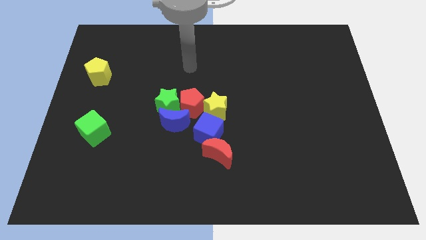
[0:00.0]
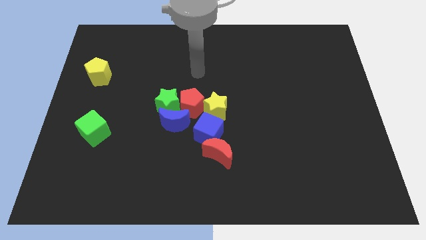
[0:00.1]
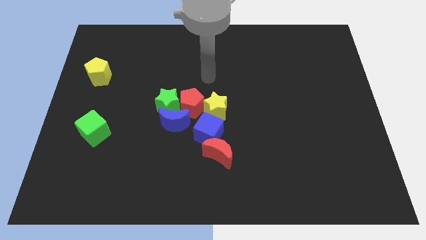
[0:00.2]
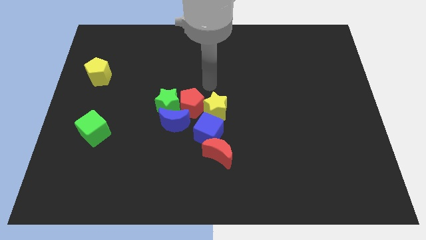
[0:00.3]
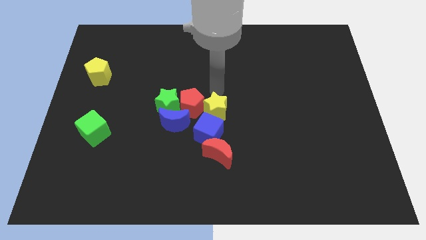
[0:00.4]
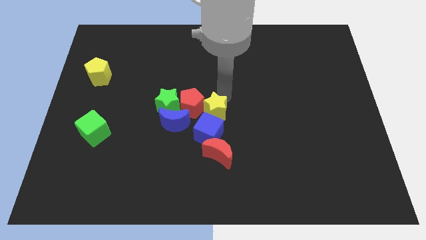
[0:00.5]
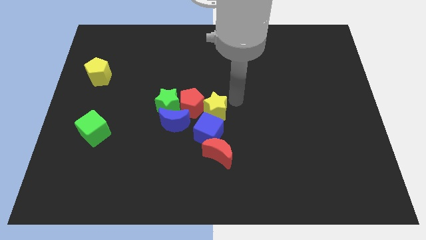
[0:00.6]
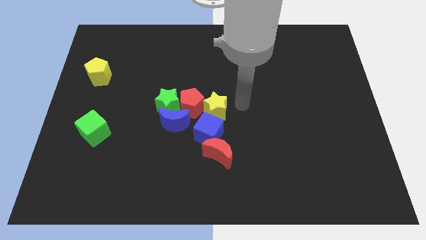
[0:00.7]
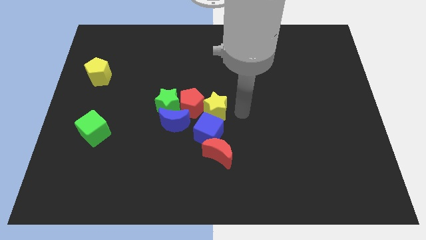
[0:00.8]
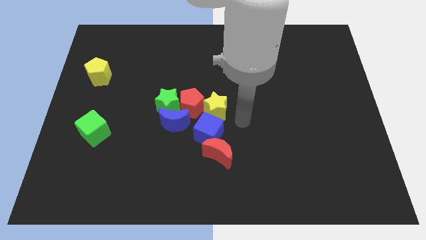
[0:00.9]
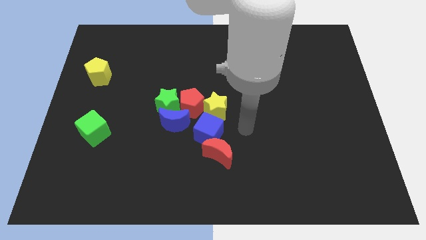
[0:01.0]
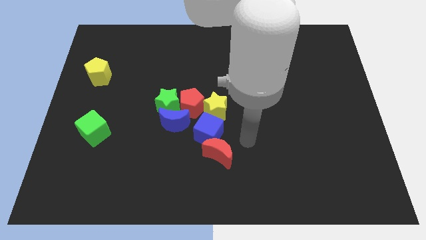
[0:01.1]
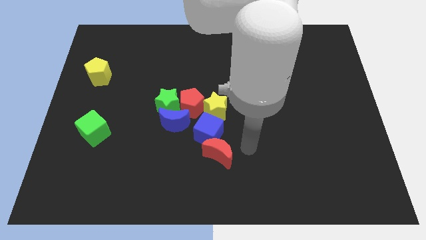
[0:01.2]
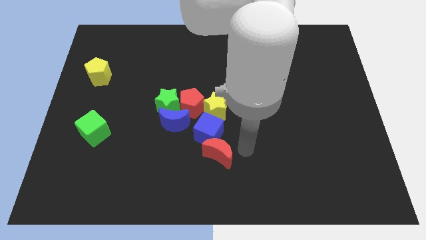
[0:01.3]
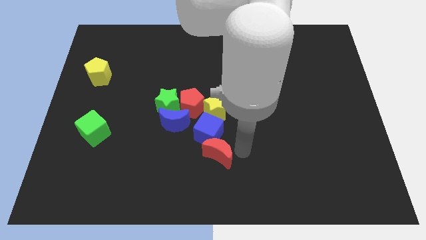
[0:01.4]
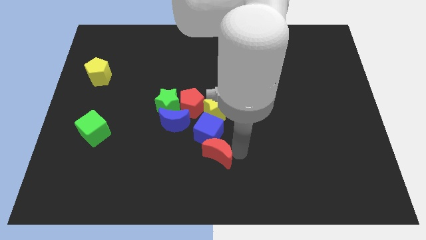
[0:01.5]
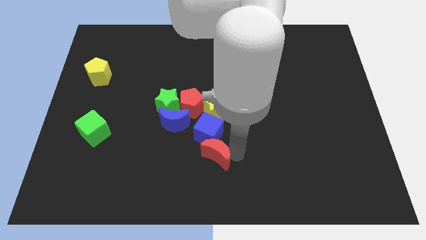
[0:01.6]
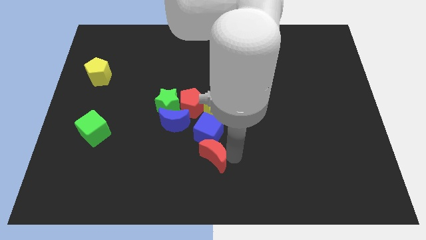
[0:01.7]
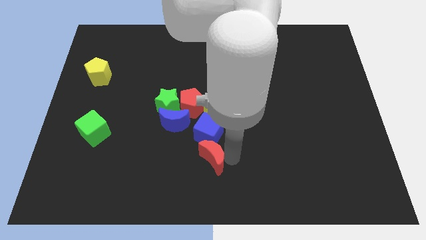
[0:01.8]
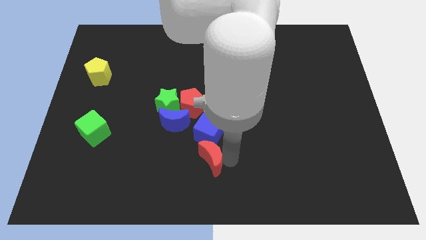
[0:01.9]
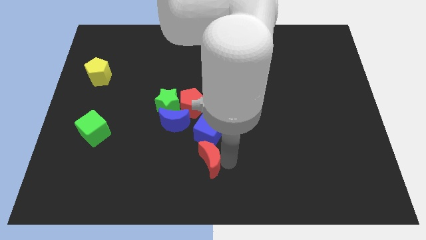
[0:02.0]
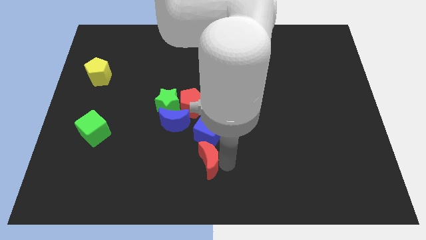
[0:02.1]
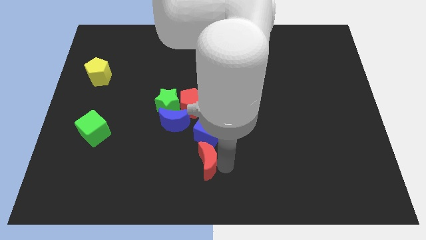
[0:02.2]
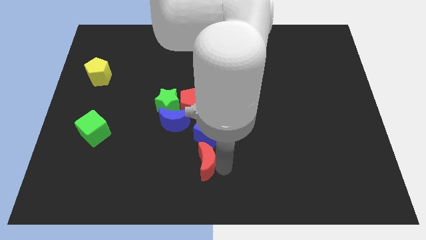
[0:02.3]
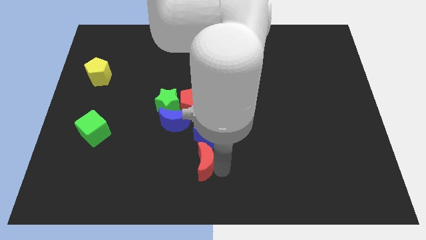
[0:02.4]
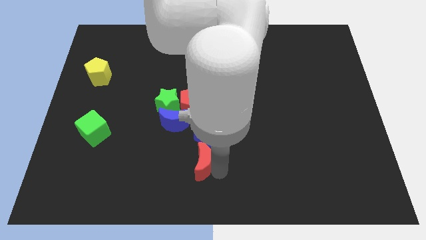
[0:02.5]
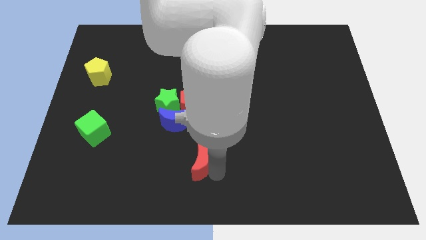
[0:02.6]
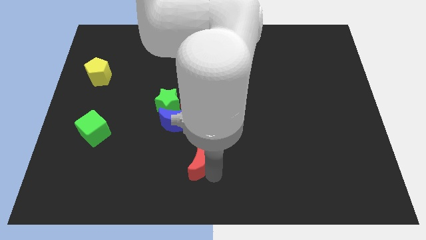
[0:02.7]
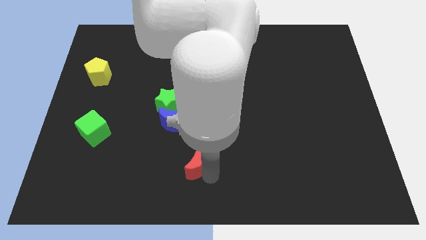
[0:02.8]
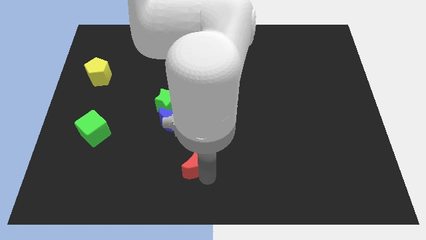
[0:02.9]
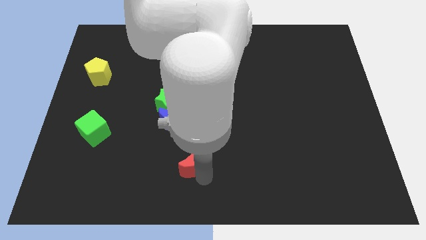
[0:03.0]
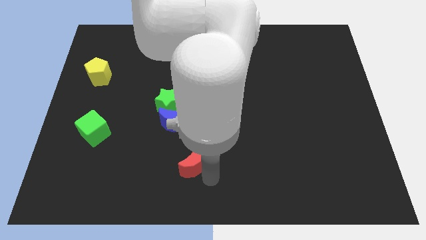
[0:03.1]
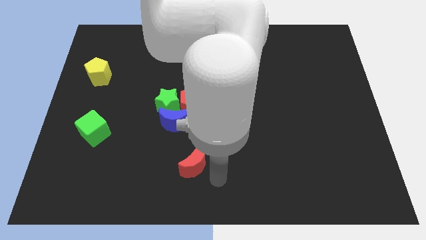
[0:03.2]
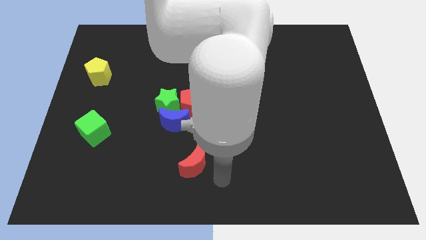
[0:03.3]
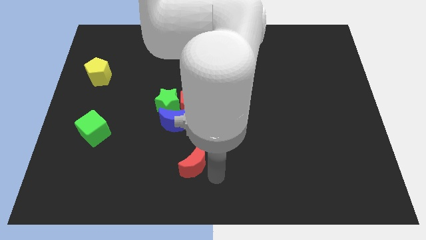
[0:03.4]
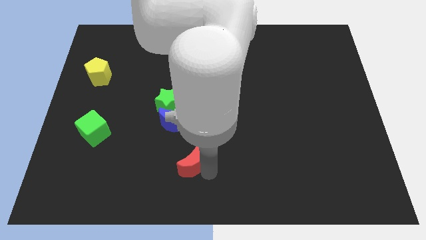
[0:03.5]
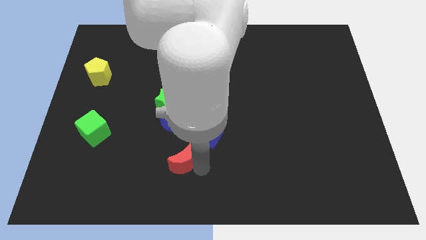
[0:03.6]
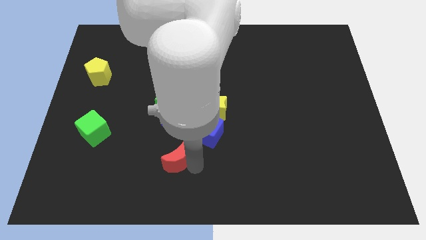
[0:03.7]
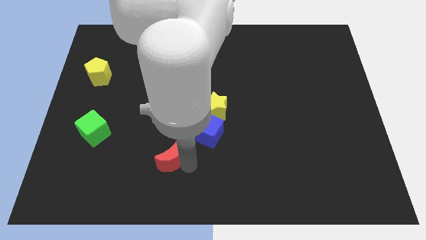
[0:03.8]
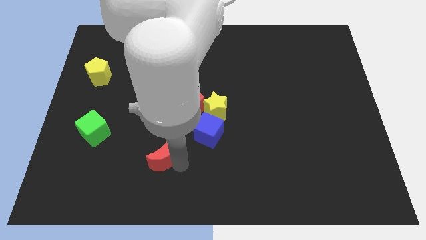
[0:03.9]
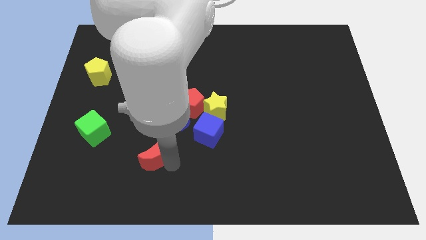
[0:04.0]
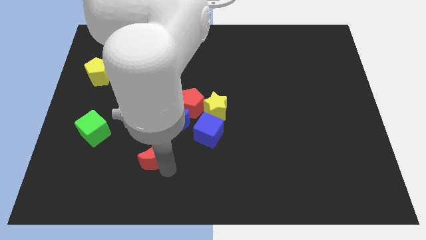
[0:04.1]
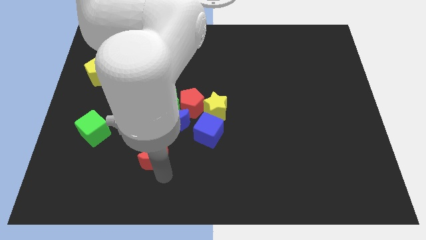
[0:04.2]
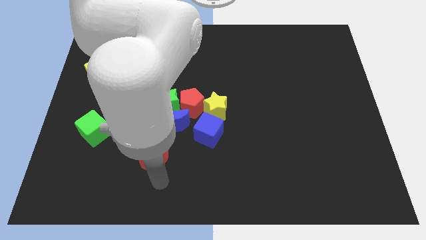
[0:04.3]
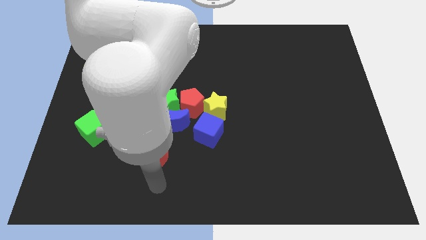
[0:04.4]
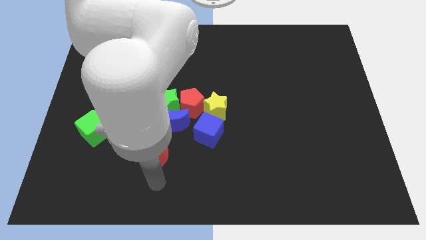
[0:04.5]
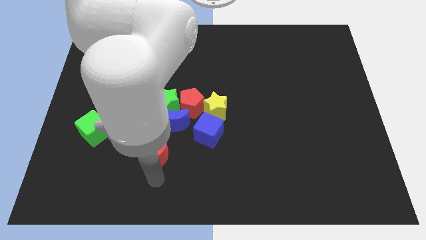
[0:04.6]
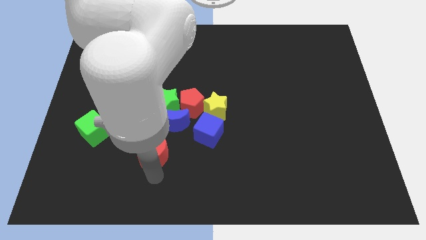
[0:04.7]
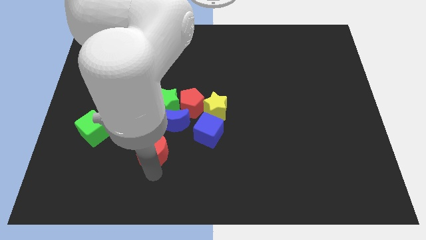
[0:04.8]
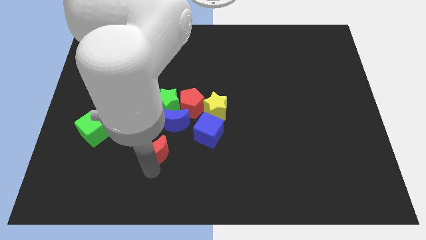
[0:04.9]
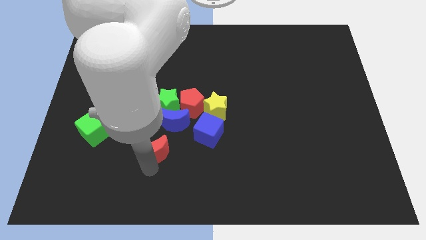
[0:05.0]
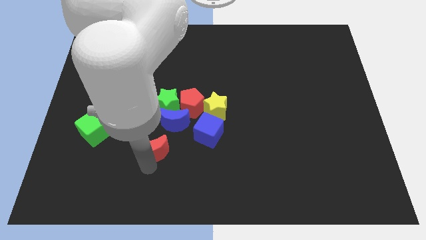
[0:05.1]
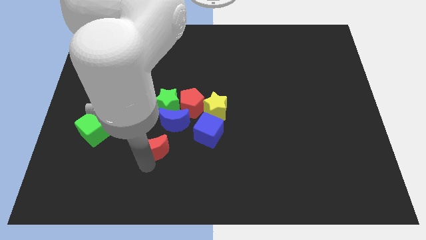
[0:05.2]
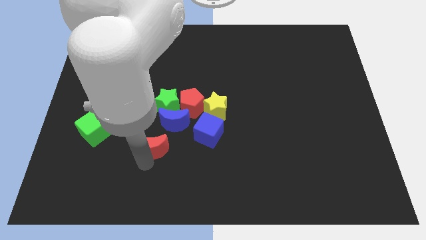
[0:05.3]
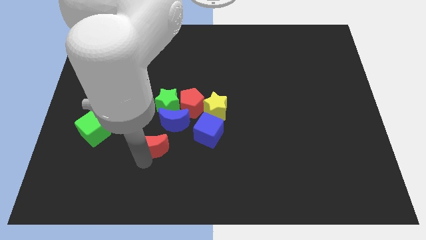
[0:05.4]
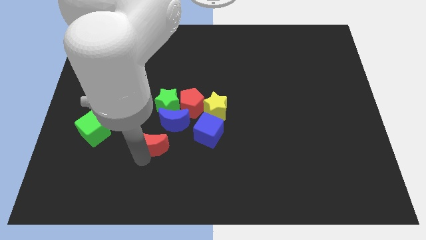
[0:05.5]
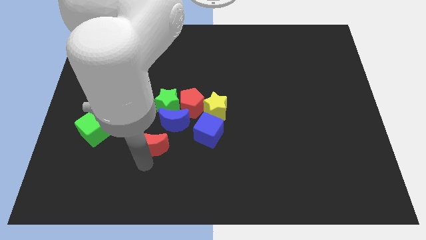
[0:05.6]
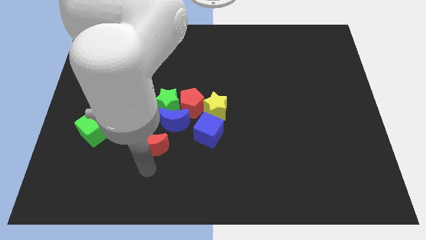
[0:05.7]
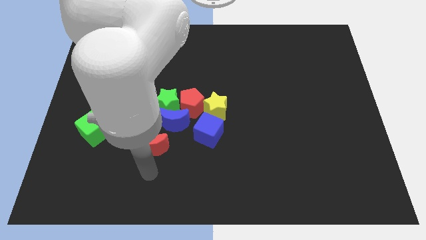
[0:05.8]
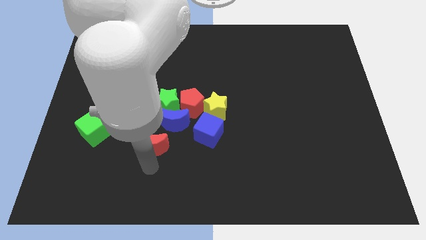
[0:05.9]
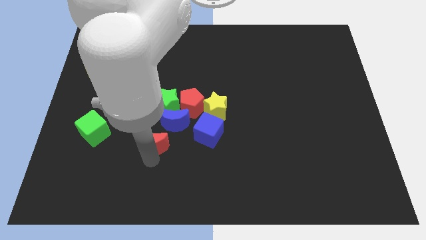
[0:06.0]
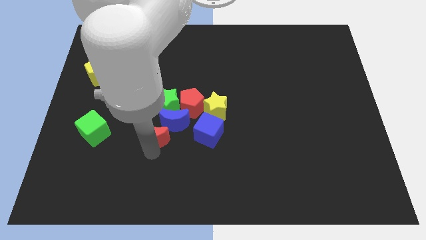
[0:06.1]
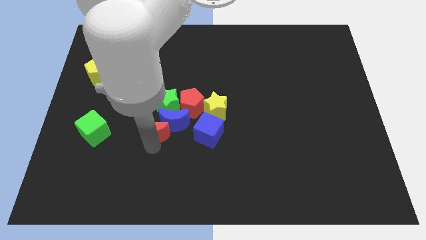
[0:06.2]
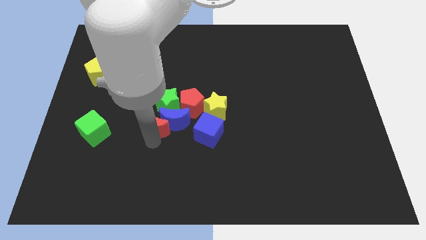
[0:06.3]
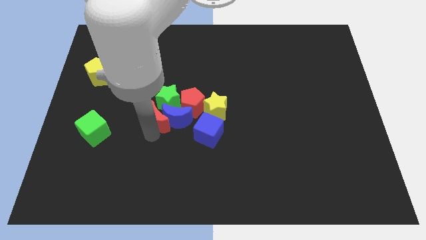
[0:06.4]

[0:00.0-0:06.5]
slide the red moon close to the green star
